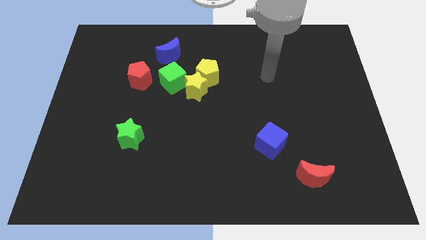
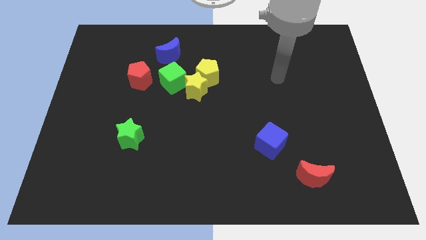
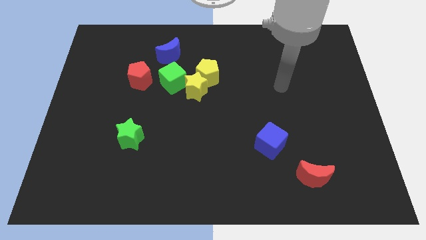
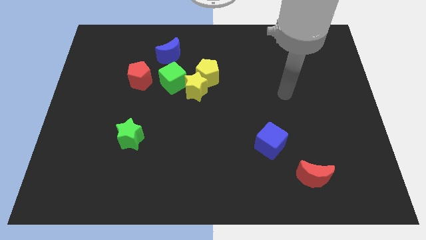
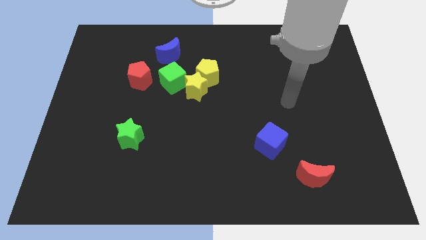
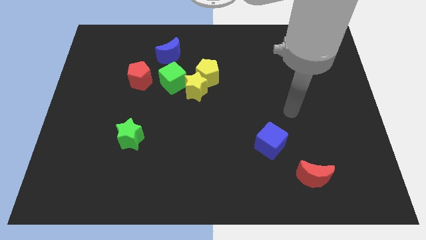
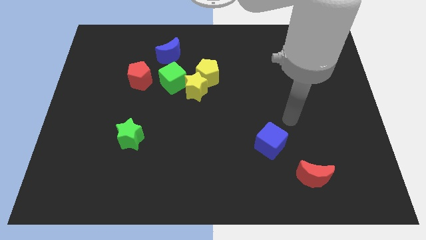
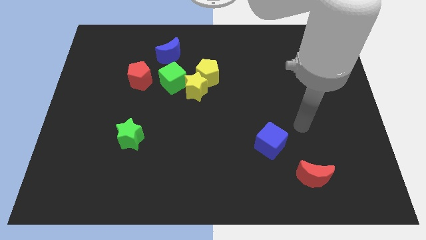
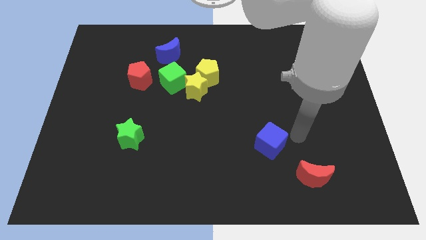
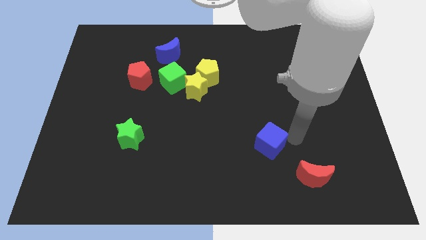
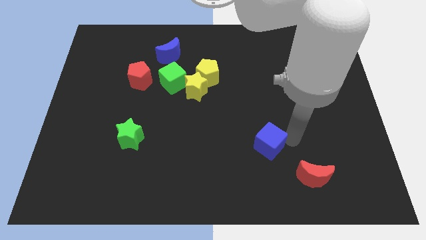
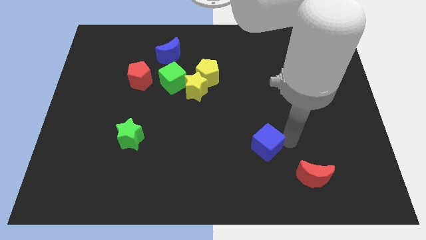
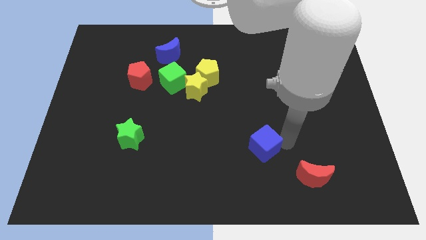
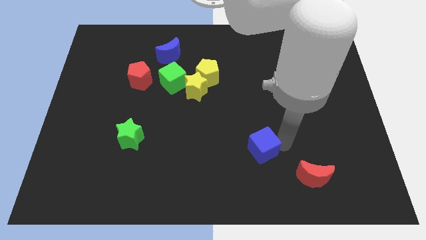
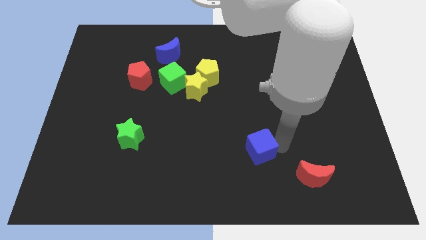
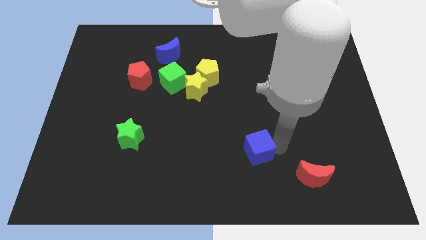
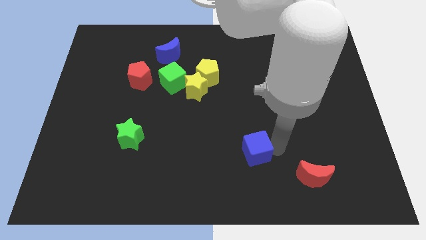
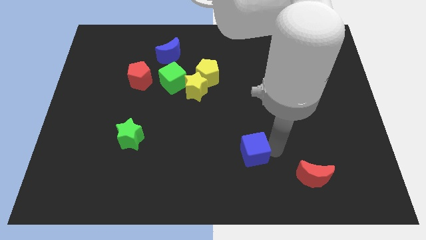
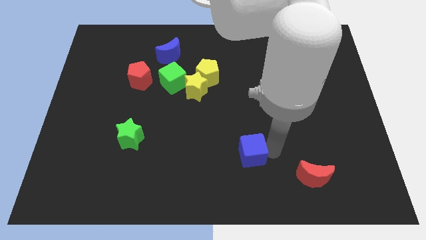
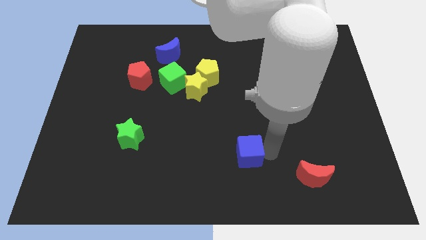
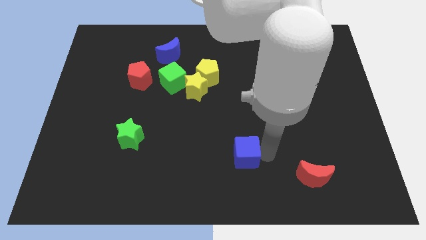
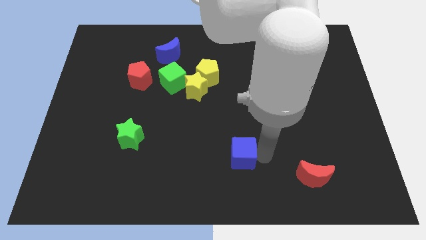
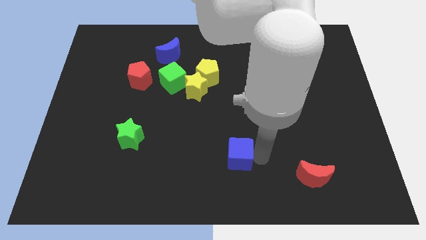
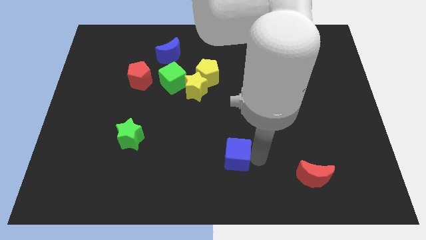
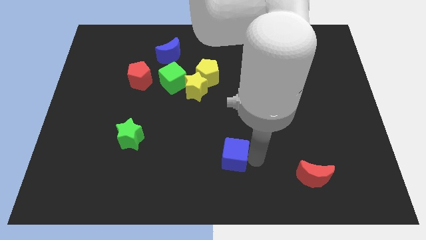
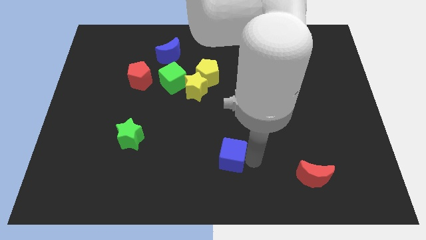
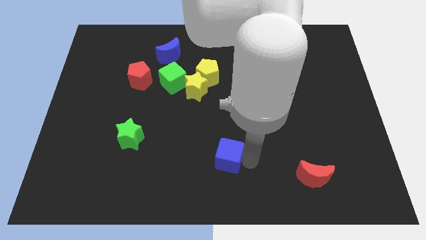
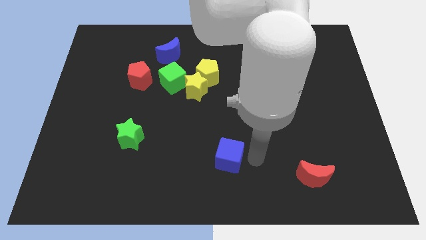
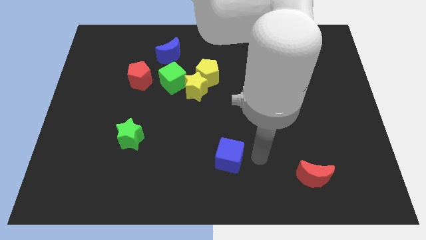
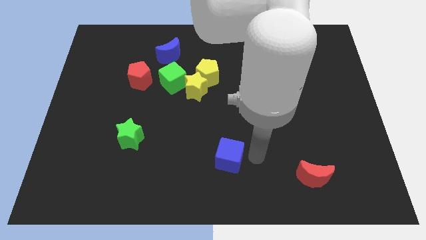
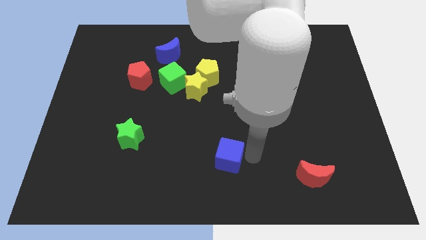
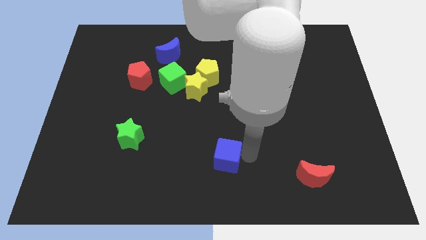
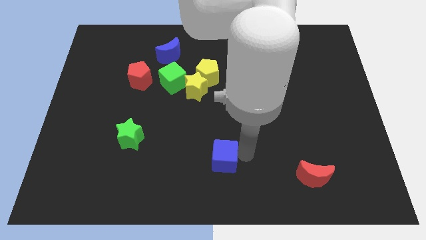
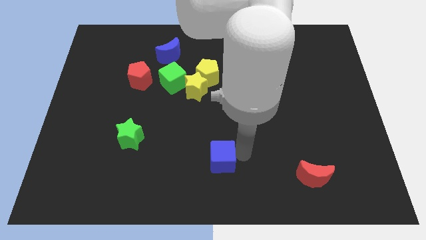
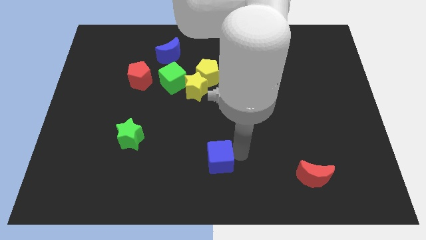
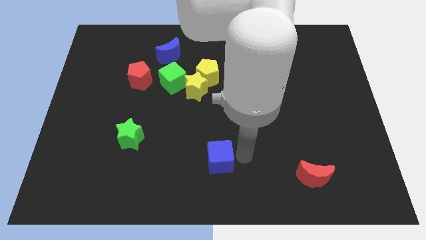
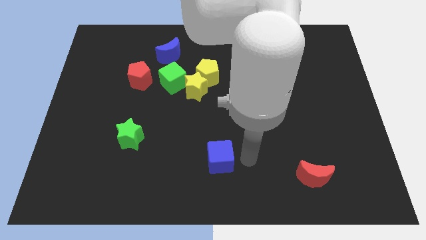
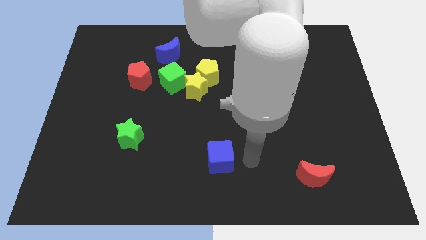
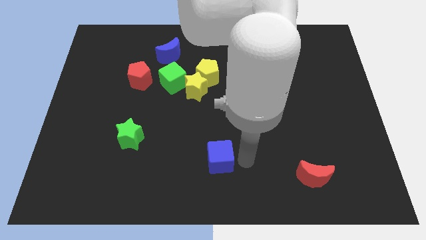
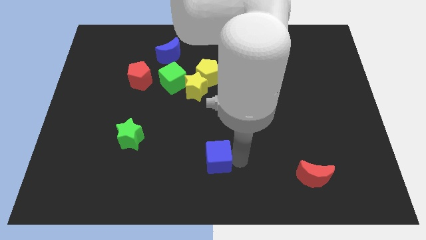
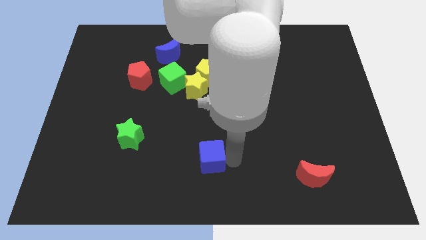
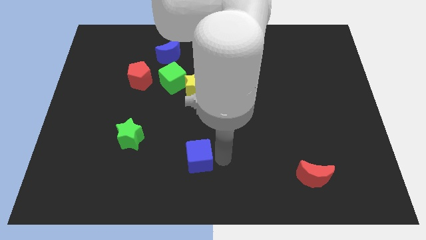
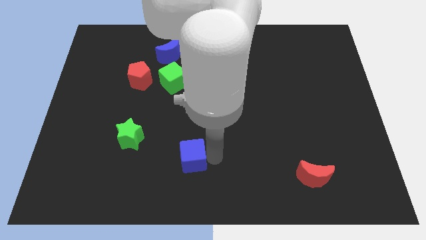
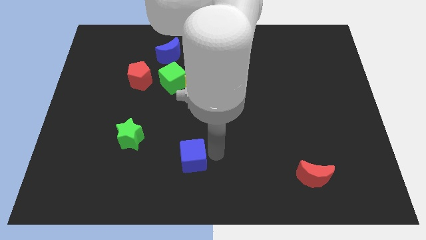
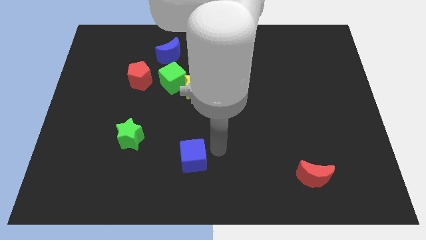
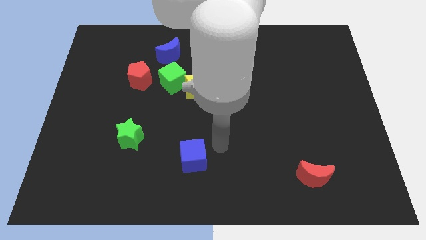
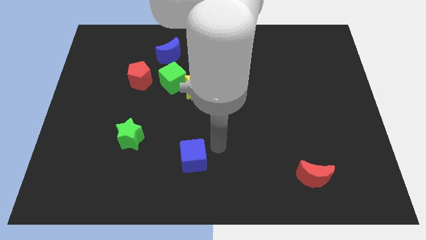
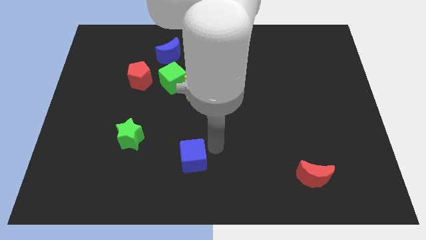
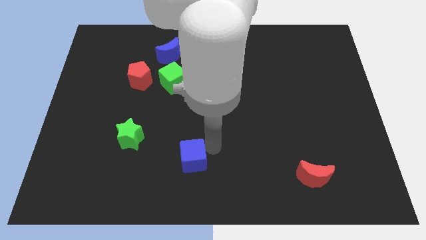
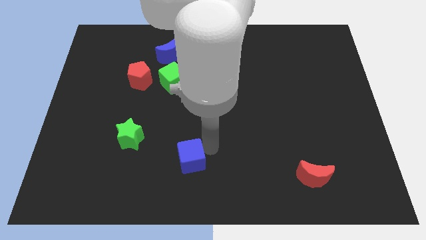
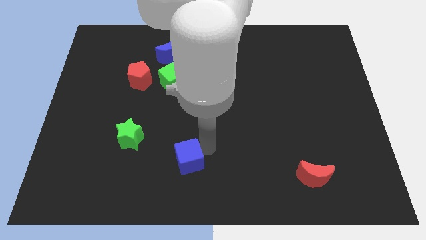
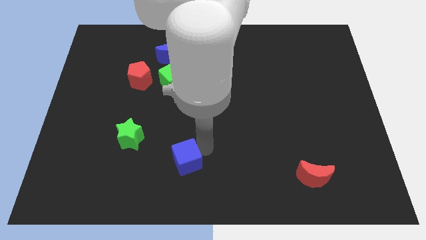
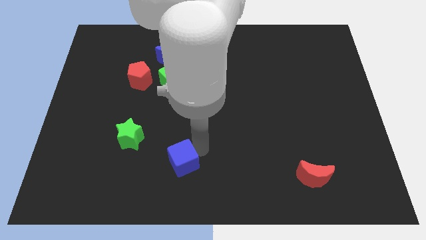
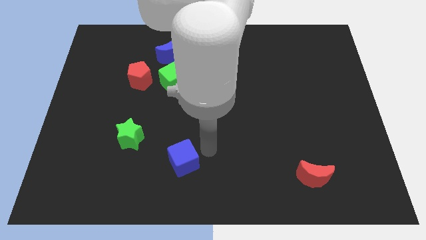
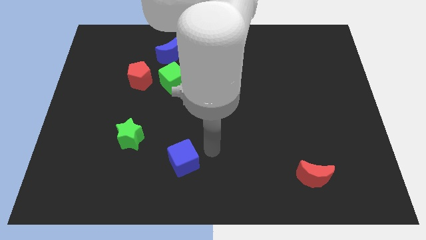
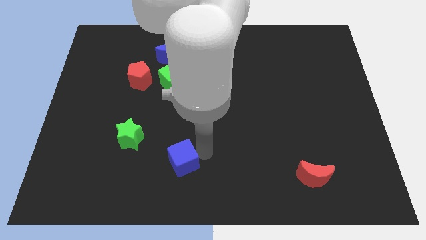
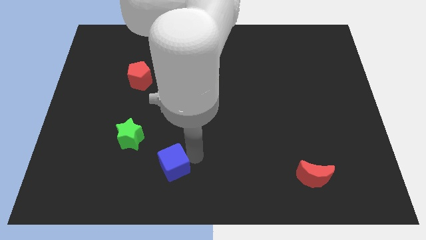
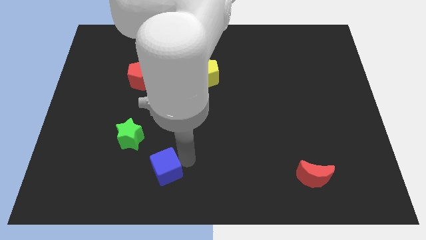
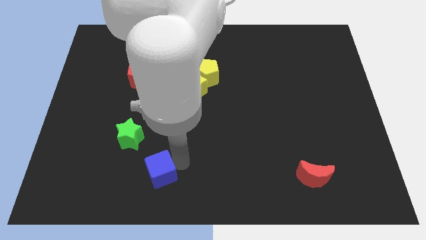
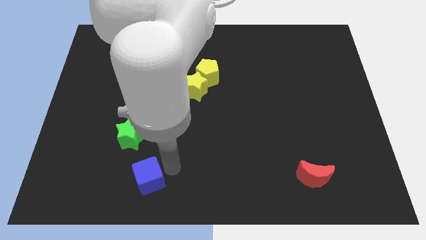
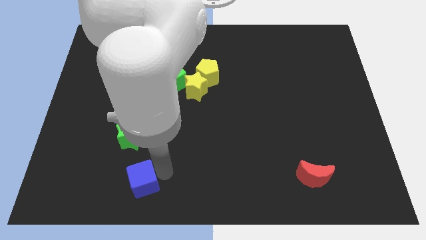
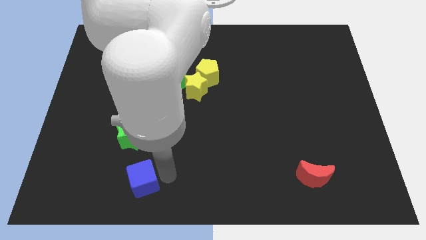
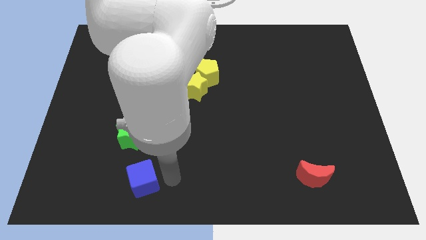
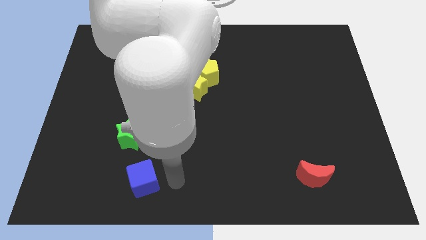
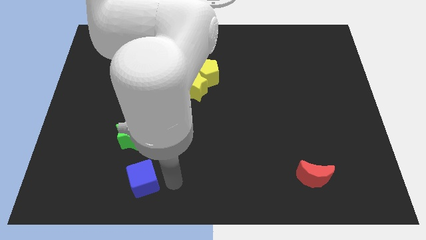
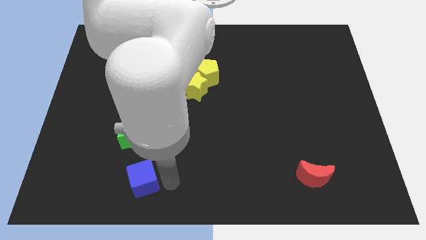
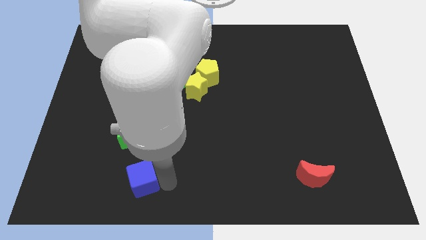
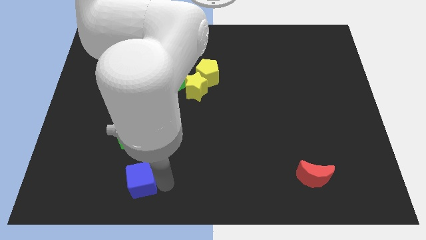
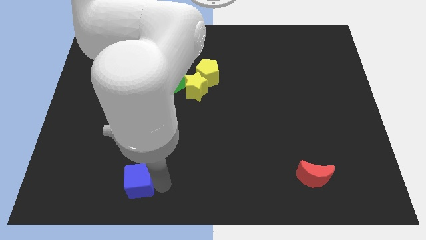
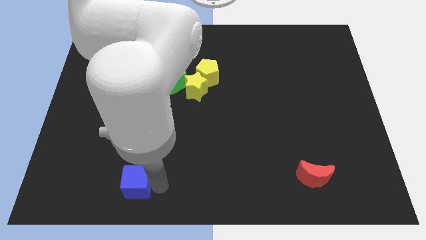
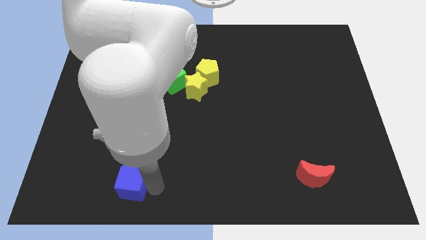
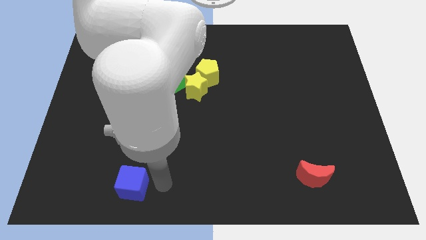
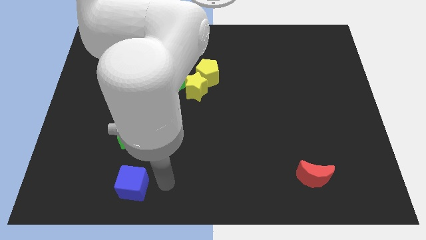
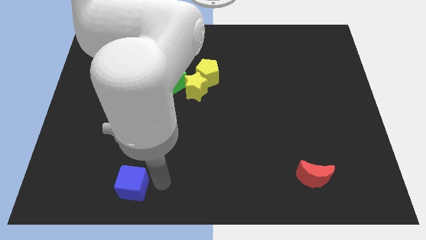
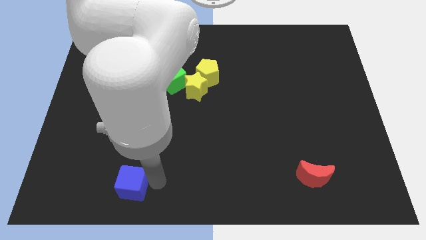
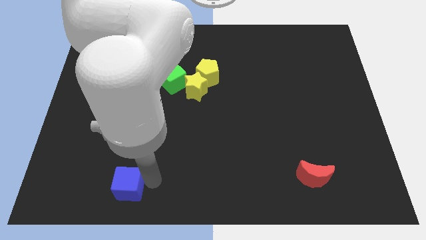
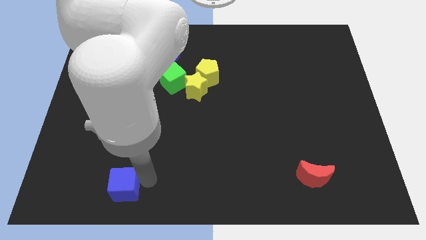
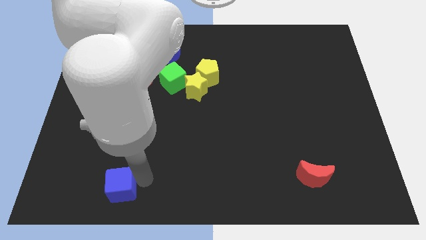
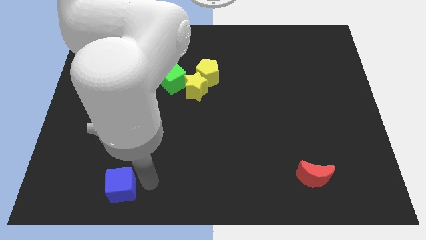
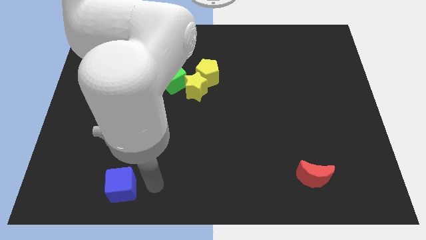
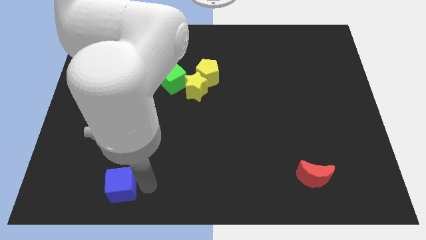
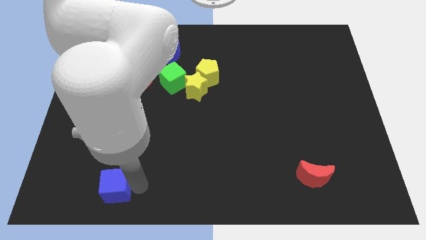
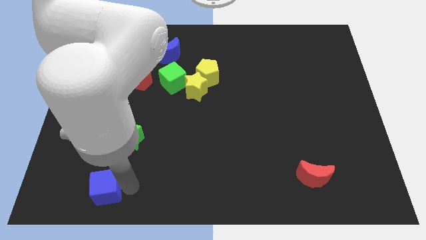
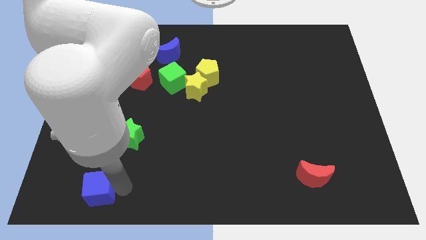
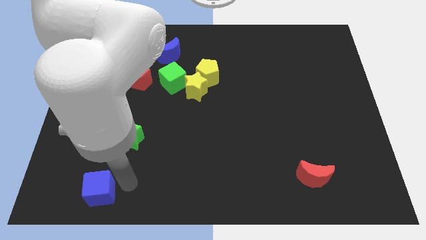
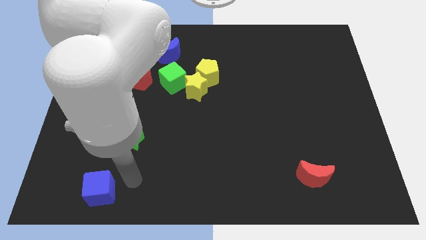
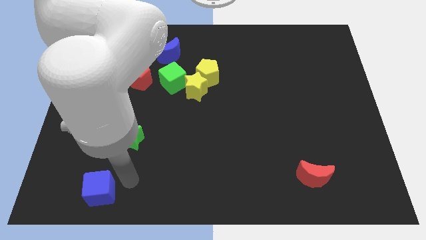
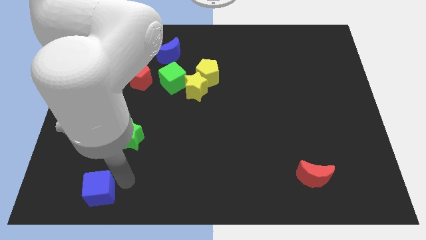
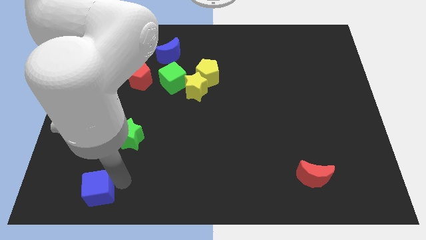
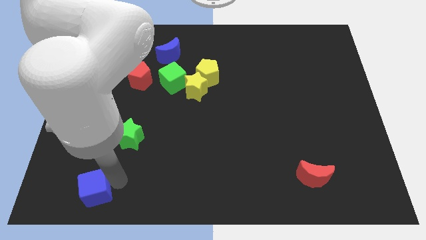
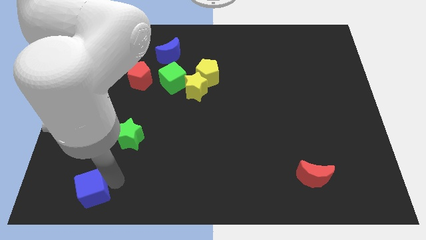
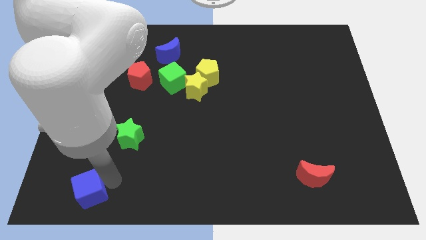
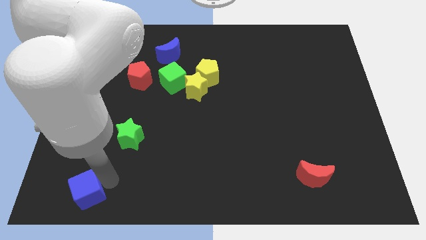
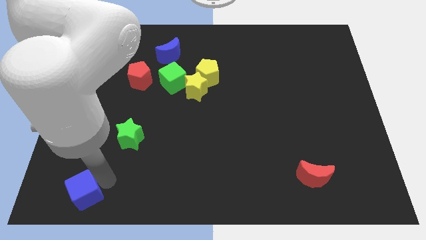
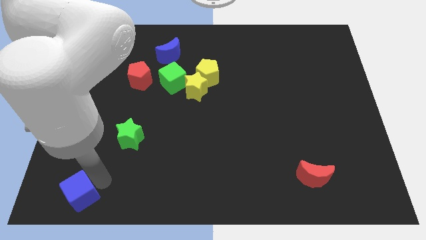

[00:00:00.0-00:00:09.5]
put the blue cube to the lower left corner
